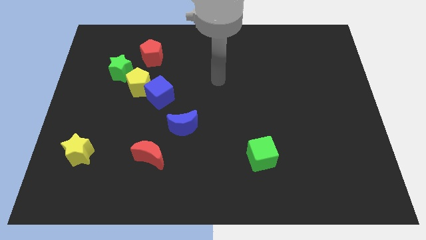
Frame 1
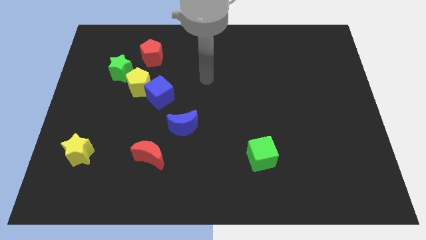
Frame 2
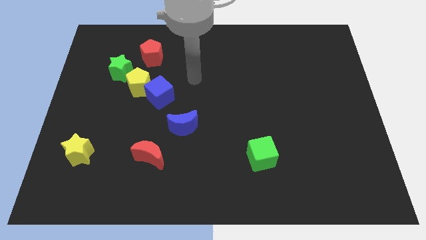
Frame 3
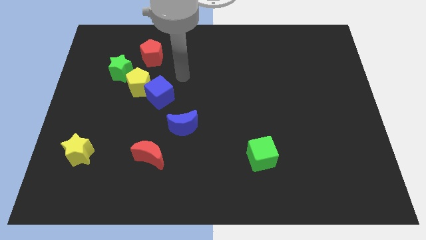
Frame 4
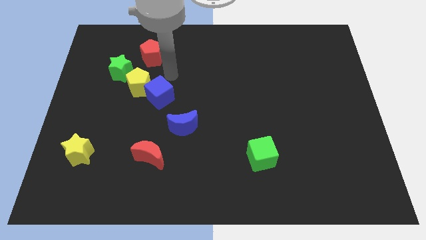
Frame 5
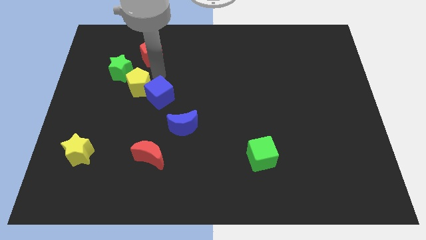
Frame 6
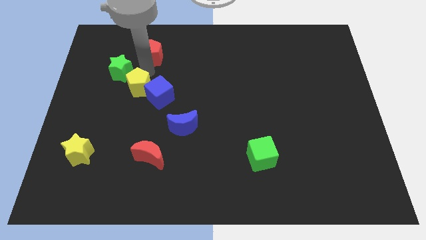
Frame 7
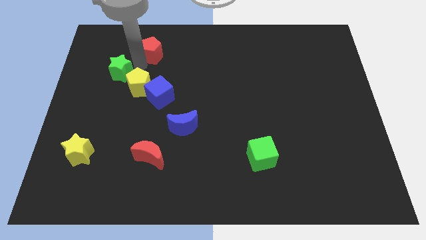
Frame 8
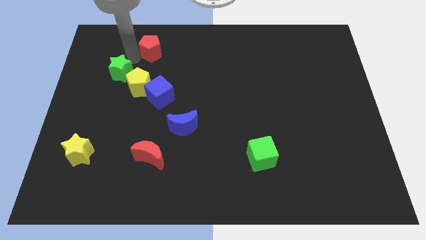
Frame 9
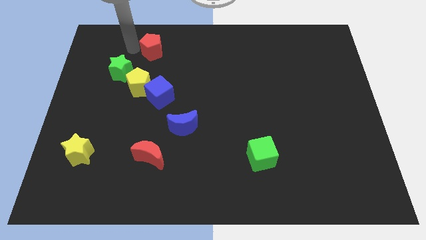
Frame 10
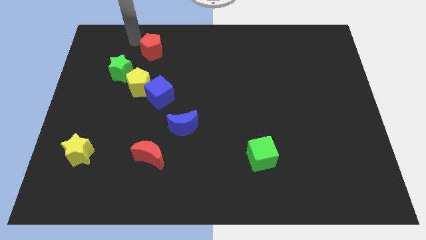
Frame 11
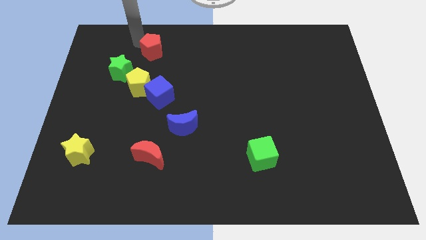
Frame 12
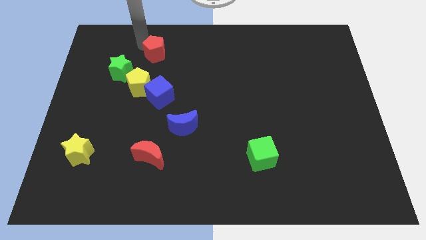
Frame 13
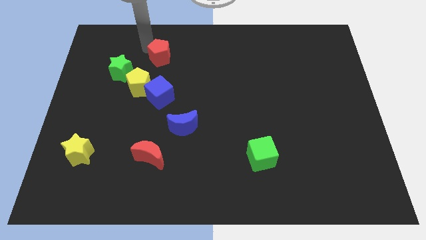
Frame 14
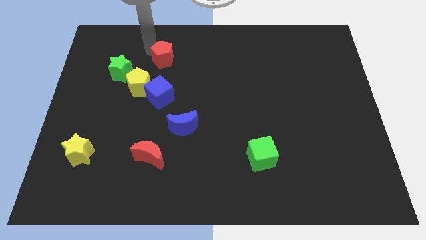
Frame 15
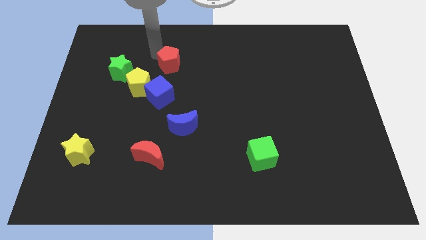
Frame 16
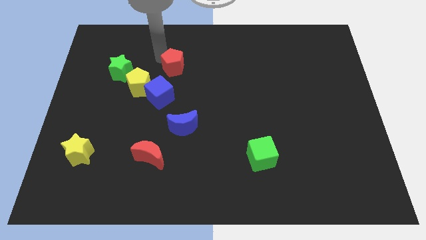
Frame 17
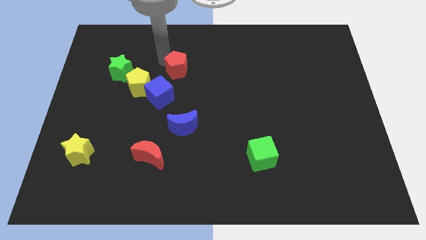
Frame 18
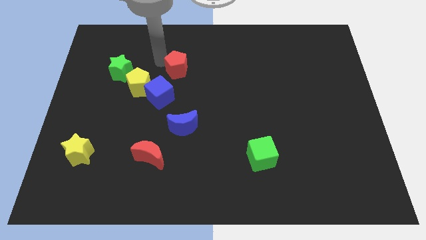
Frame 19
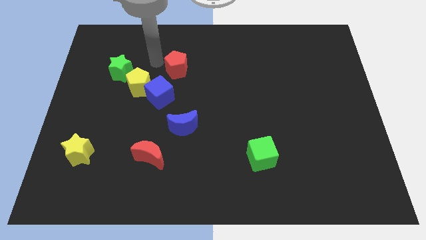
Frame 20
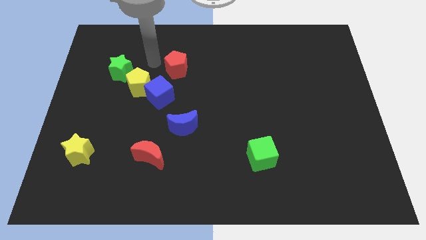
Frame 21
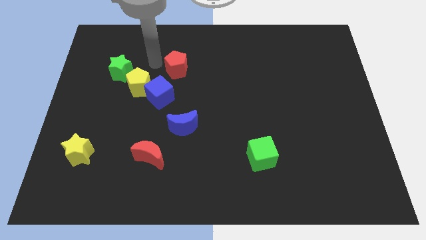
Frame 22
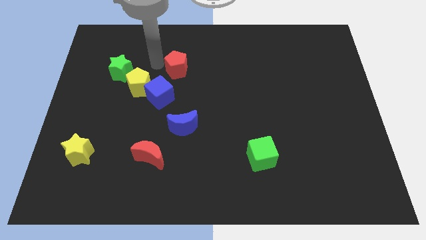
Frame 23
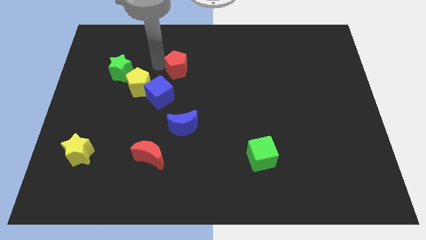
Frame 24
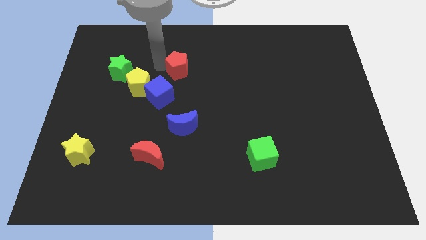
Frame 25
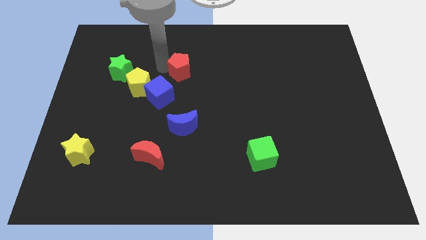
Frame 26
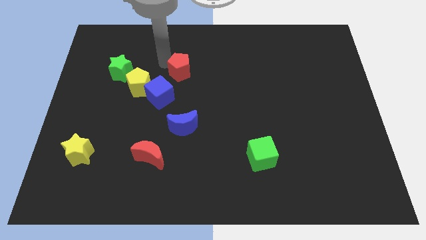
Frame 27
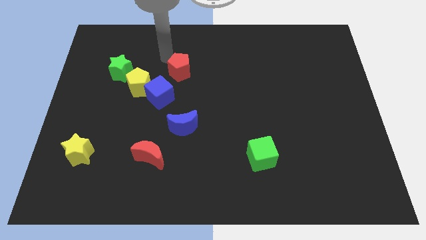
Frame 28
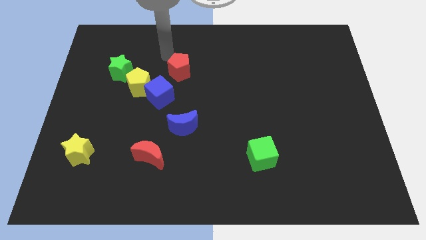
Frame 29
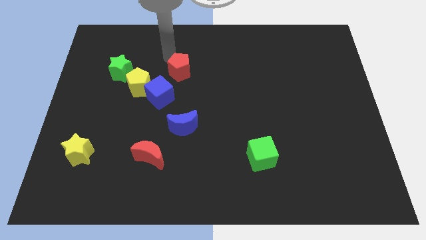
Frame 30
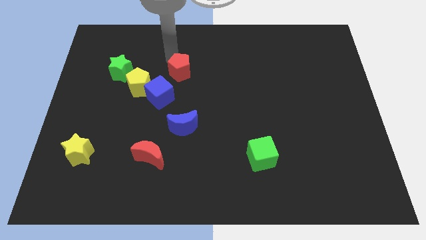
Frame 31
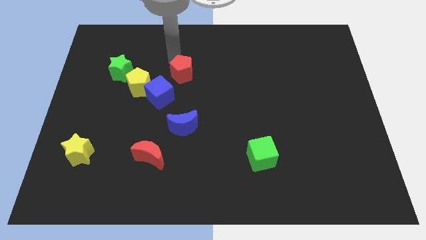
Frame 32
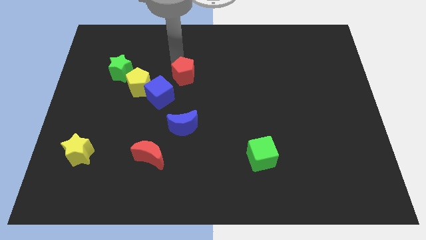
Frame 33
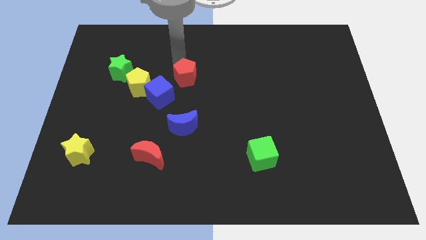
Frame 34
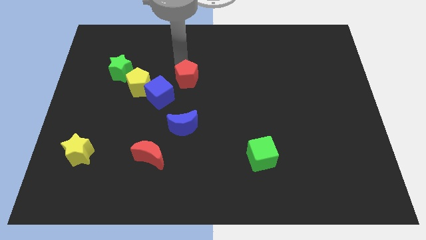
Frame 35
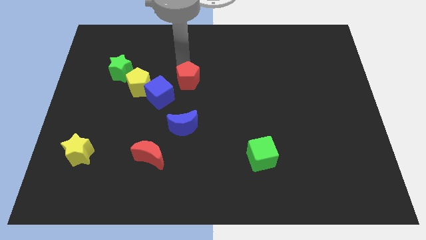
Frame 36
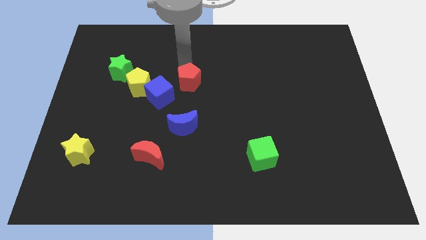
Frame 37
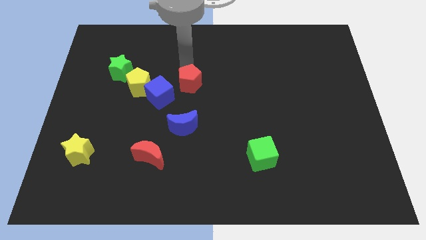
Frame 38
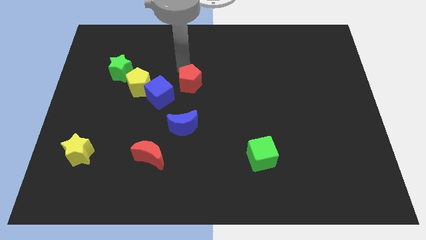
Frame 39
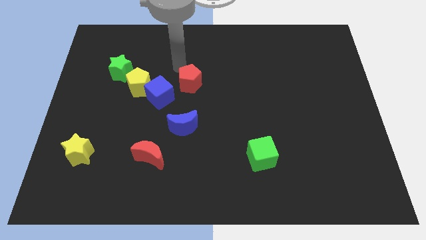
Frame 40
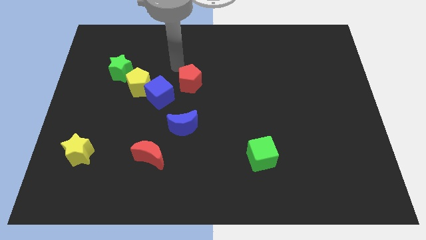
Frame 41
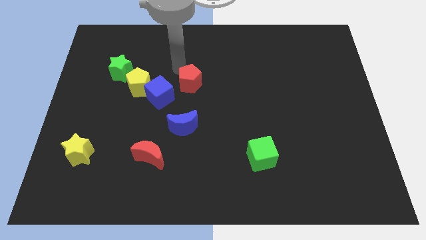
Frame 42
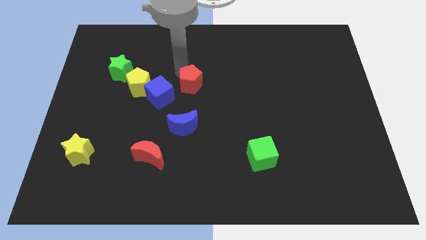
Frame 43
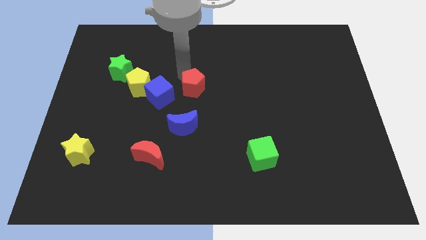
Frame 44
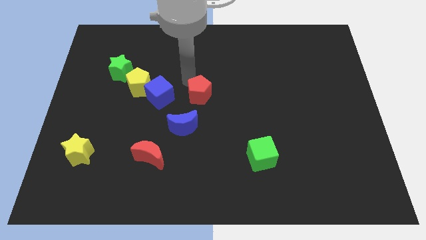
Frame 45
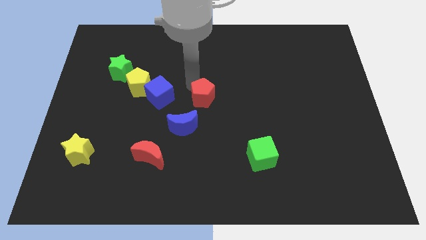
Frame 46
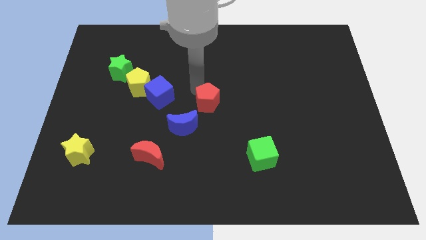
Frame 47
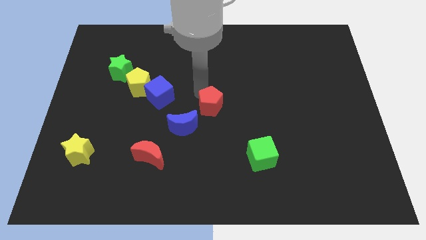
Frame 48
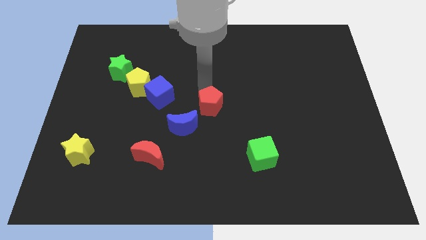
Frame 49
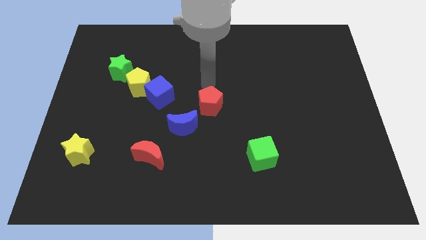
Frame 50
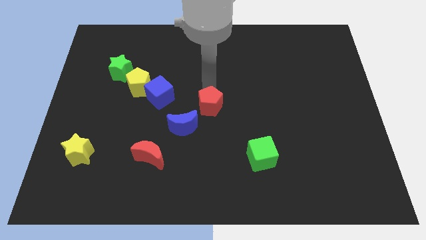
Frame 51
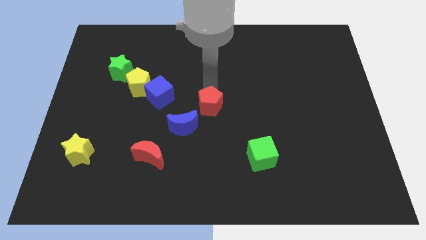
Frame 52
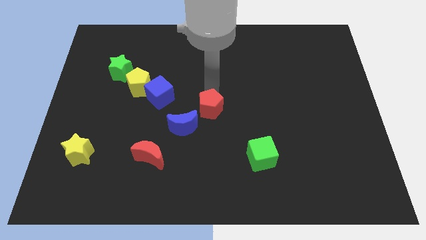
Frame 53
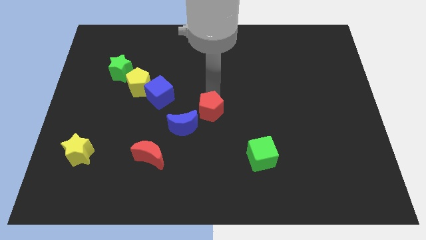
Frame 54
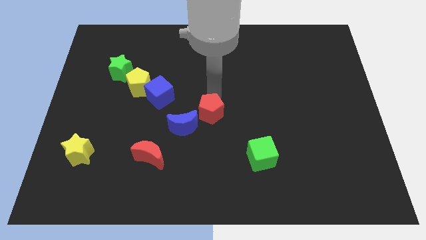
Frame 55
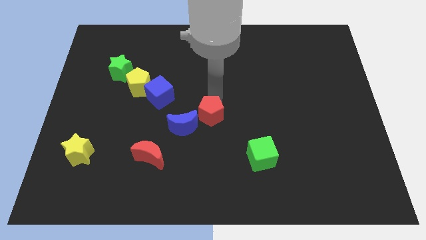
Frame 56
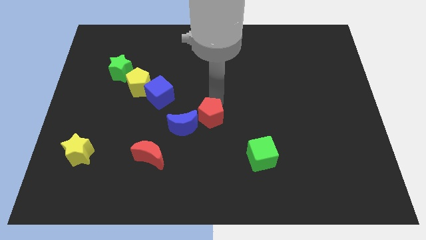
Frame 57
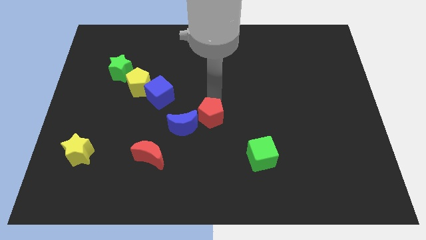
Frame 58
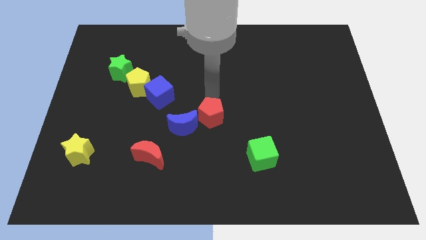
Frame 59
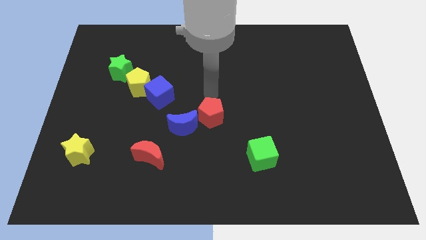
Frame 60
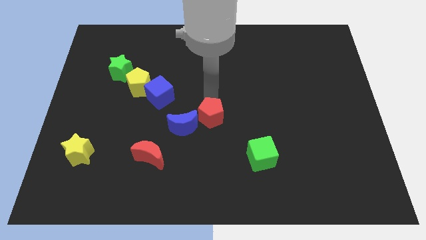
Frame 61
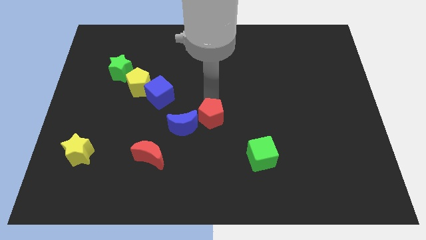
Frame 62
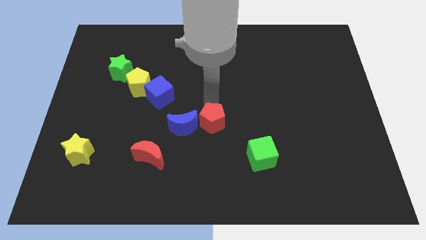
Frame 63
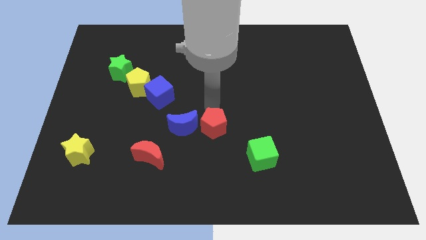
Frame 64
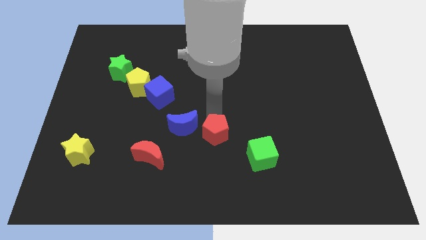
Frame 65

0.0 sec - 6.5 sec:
move the red pentagon to the bottom right of the blue moon

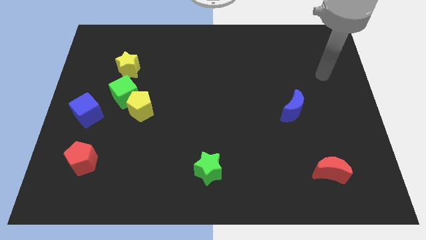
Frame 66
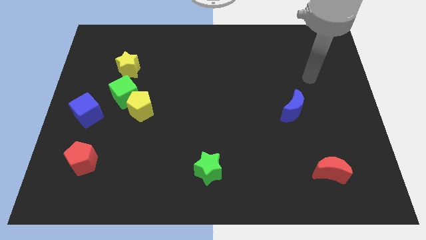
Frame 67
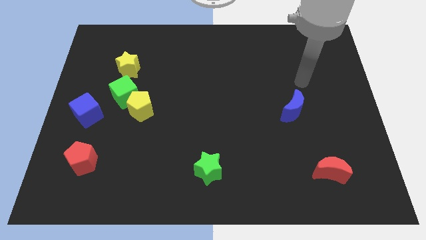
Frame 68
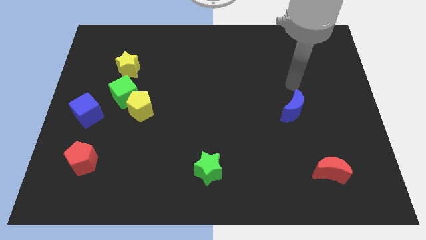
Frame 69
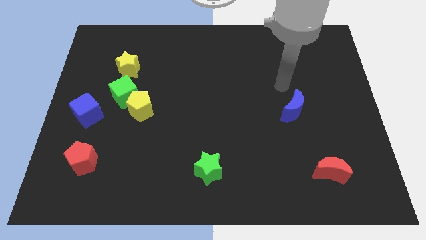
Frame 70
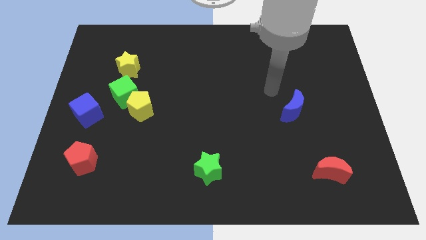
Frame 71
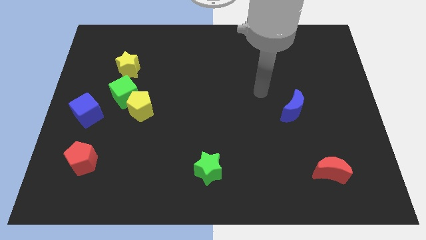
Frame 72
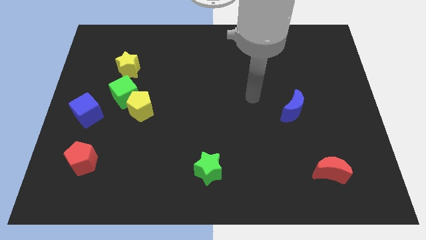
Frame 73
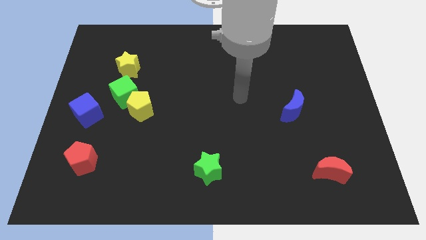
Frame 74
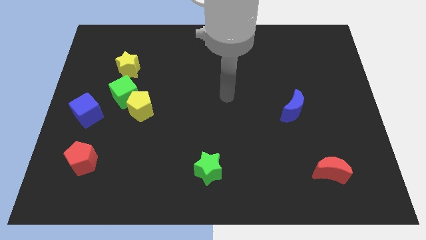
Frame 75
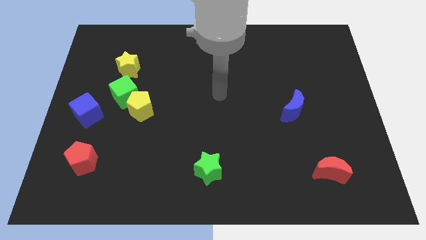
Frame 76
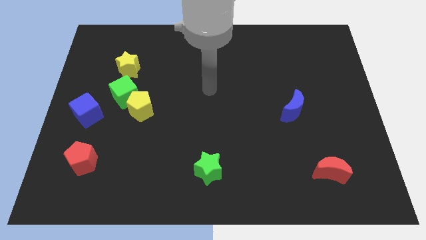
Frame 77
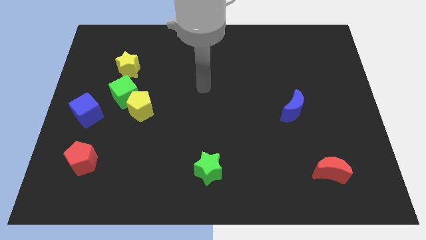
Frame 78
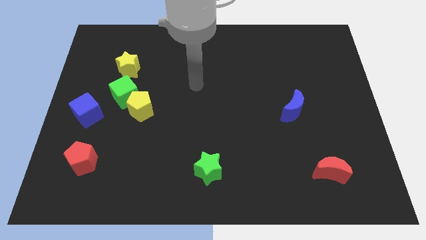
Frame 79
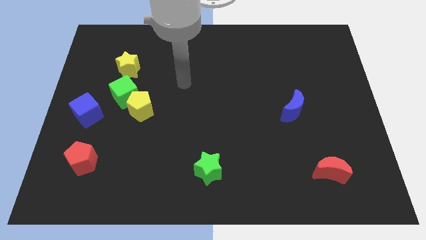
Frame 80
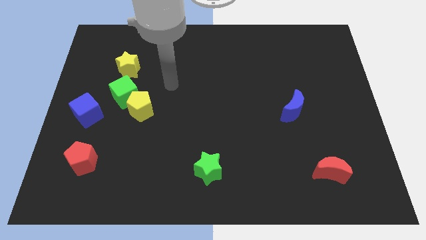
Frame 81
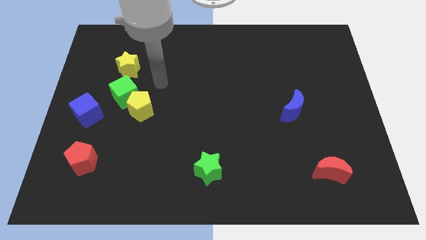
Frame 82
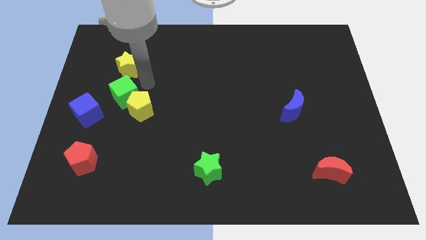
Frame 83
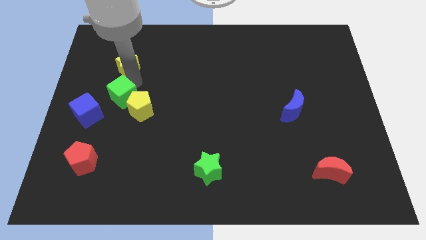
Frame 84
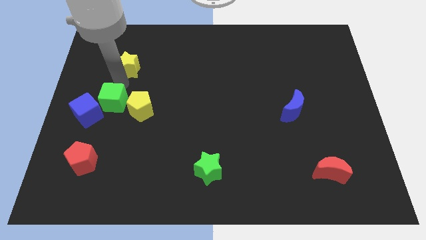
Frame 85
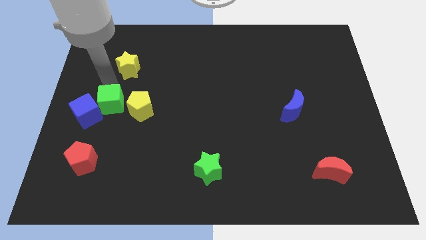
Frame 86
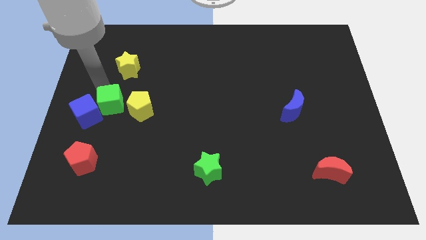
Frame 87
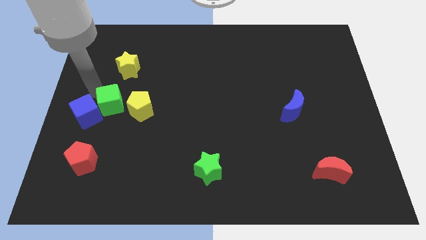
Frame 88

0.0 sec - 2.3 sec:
move the blue cube to the bottom side of the green cube
